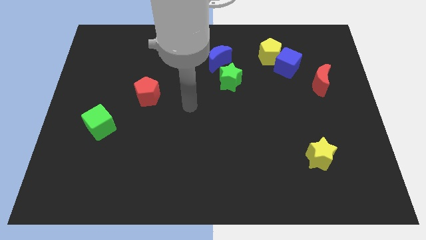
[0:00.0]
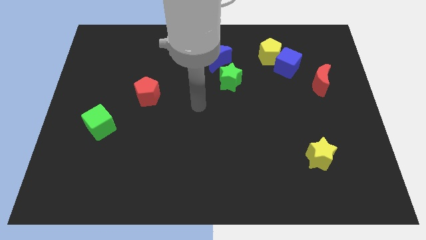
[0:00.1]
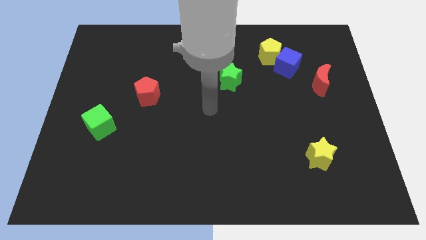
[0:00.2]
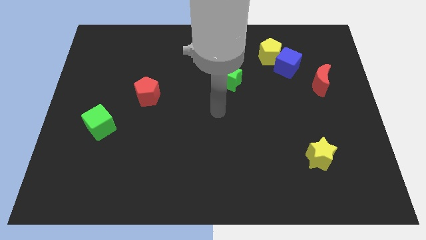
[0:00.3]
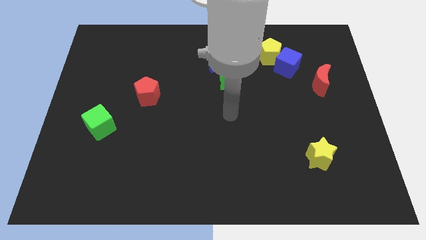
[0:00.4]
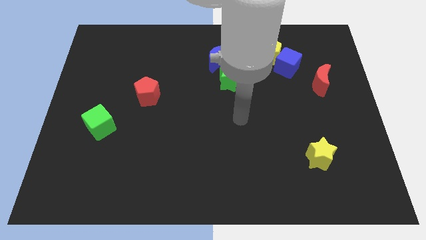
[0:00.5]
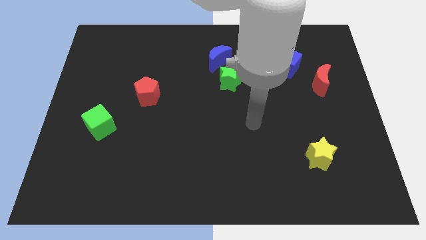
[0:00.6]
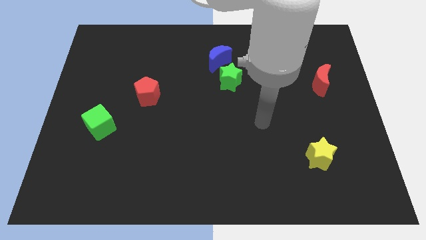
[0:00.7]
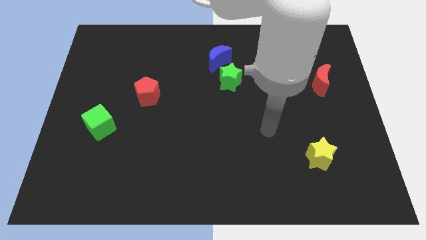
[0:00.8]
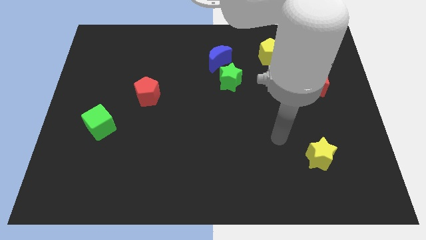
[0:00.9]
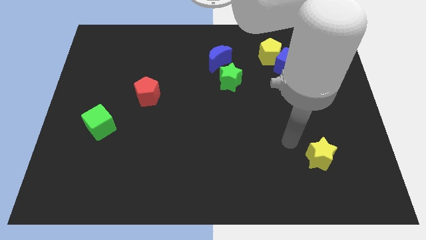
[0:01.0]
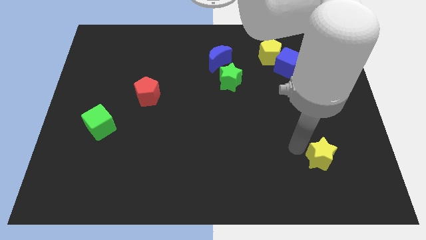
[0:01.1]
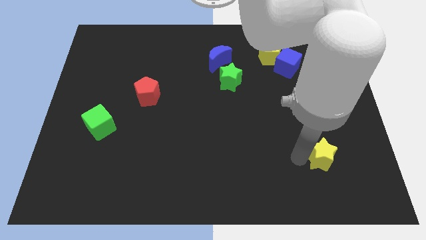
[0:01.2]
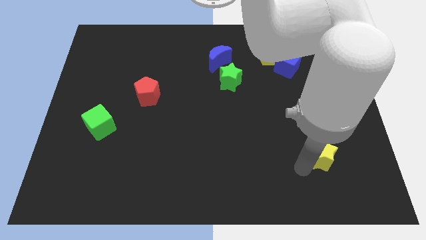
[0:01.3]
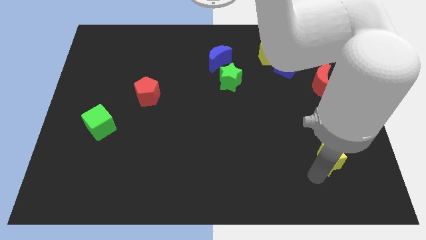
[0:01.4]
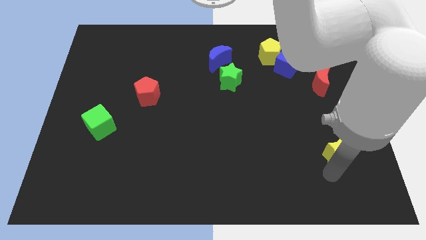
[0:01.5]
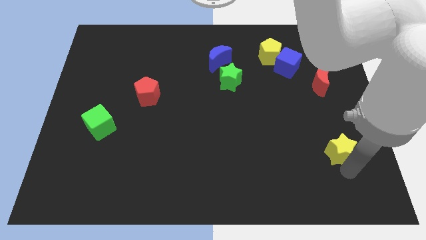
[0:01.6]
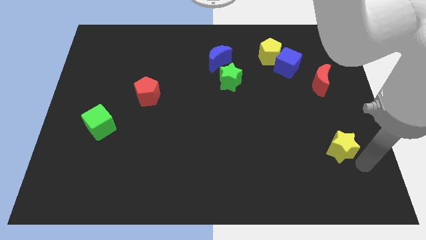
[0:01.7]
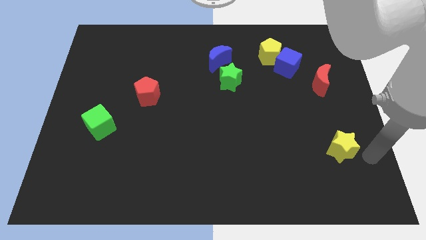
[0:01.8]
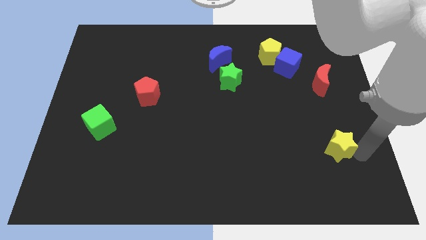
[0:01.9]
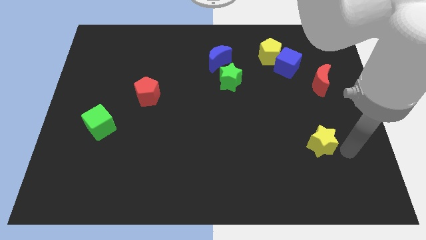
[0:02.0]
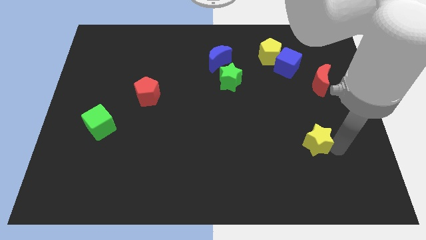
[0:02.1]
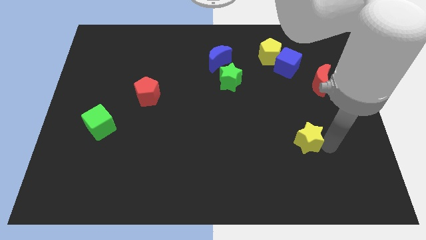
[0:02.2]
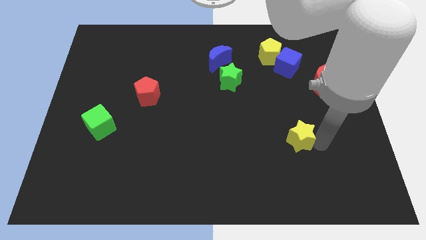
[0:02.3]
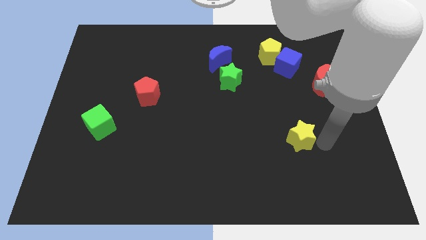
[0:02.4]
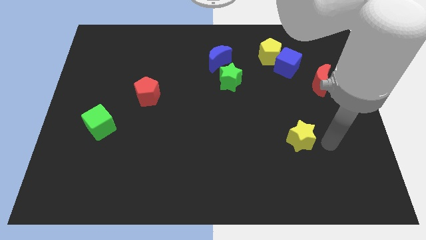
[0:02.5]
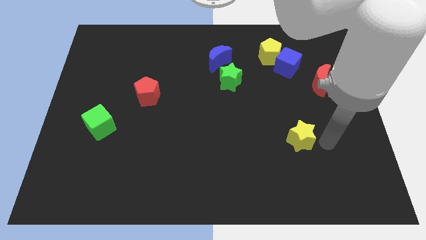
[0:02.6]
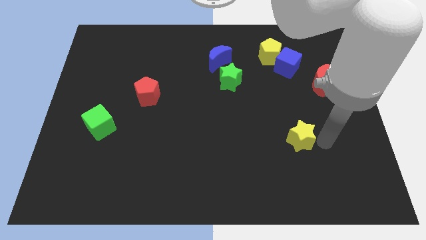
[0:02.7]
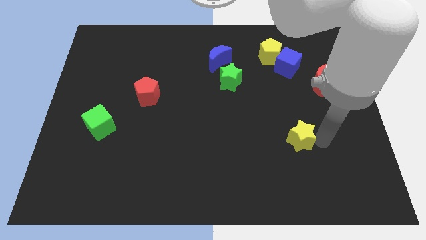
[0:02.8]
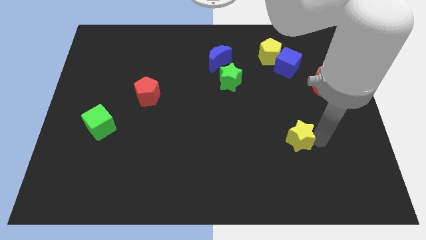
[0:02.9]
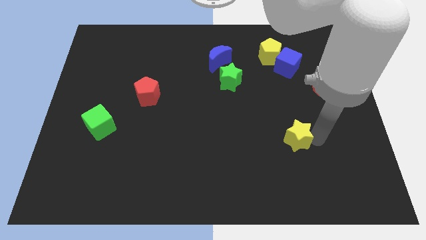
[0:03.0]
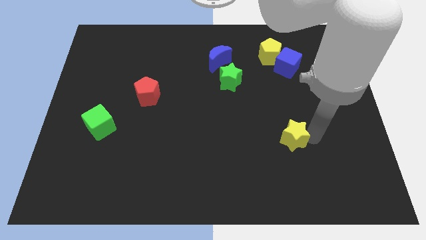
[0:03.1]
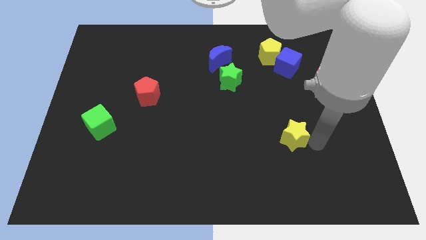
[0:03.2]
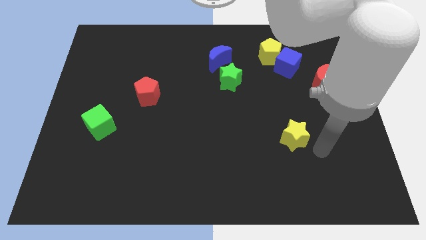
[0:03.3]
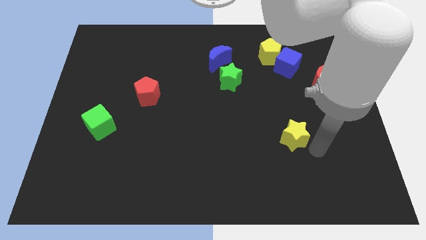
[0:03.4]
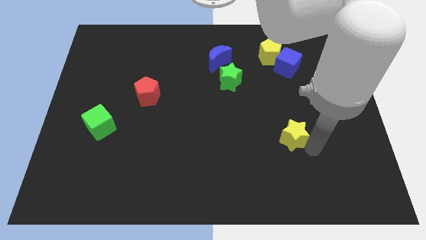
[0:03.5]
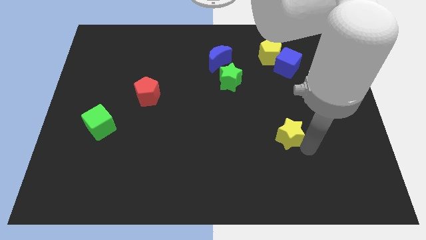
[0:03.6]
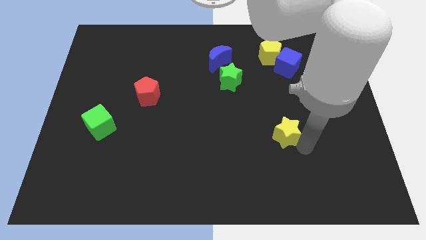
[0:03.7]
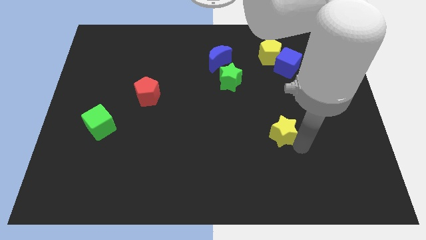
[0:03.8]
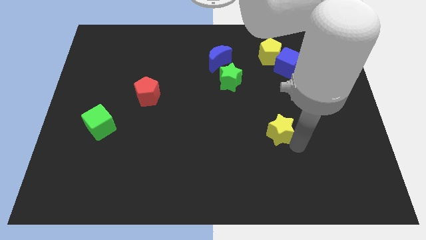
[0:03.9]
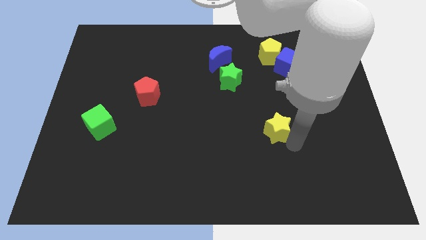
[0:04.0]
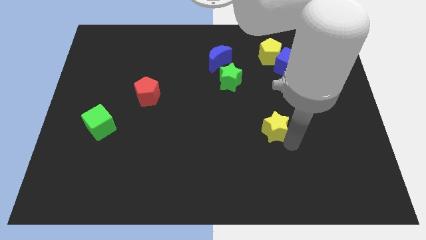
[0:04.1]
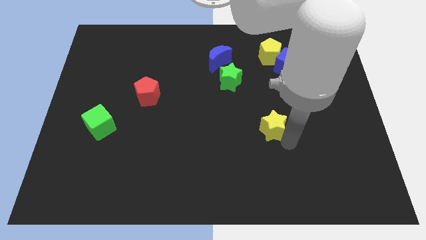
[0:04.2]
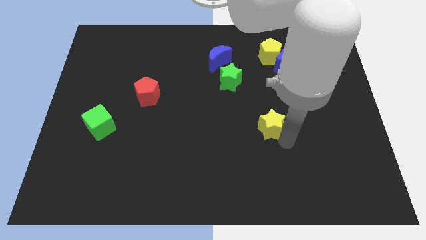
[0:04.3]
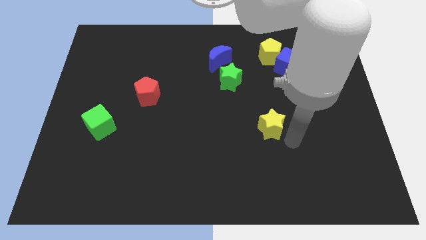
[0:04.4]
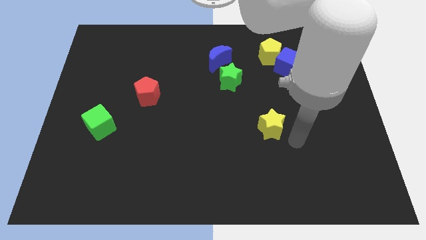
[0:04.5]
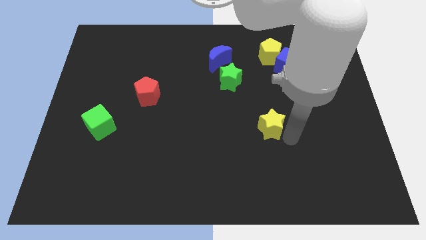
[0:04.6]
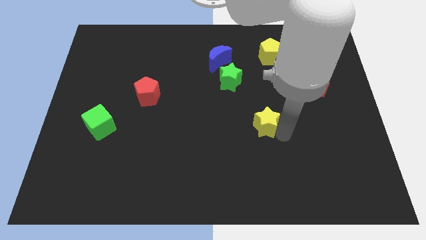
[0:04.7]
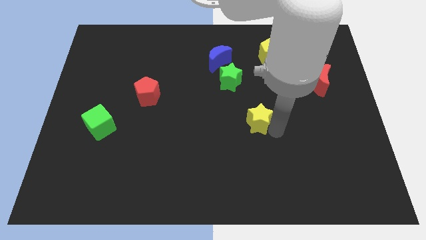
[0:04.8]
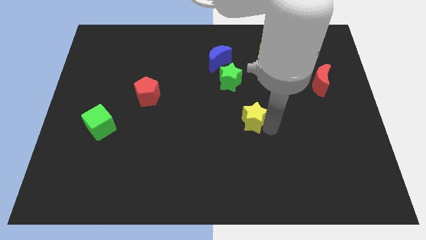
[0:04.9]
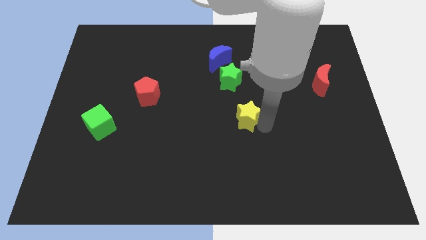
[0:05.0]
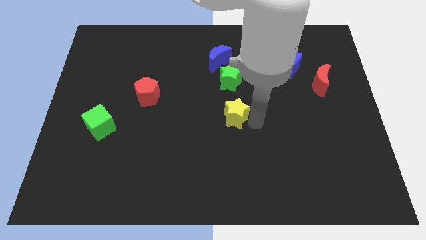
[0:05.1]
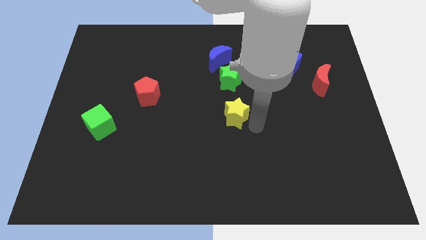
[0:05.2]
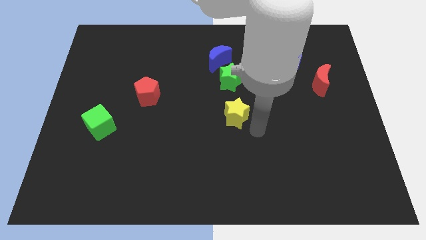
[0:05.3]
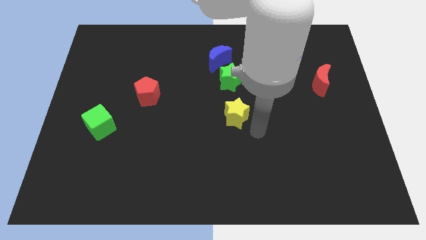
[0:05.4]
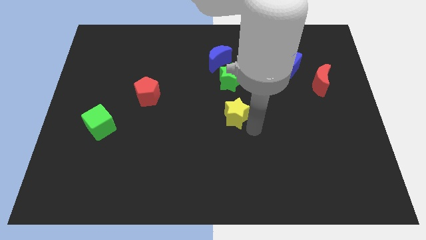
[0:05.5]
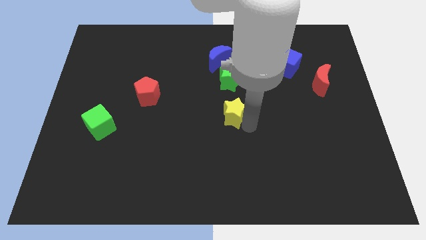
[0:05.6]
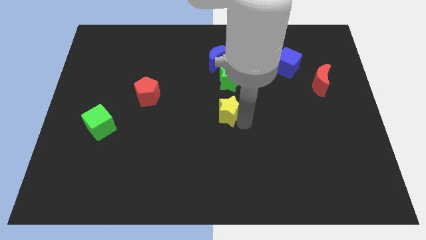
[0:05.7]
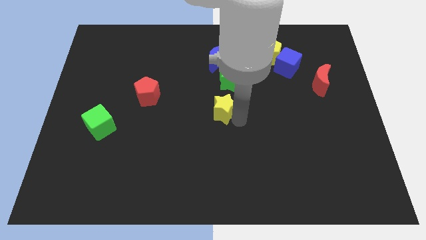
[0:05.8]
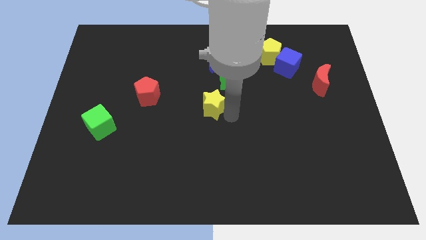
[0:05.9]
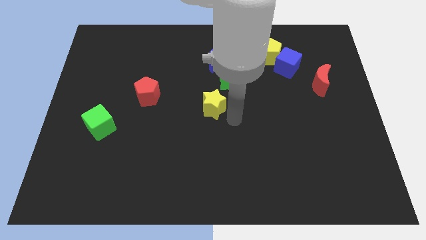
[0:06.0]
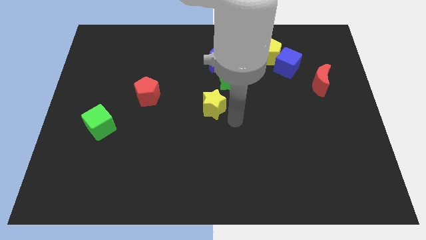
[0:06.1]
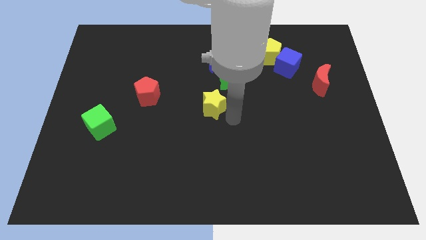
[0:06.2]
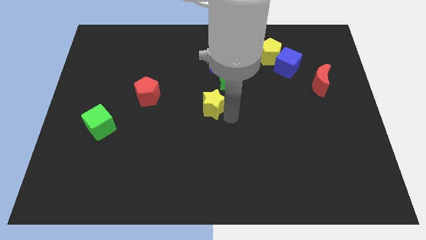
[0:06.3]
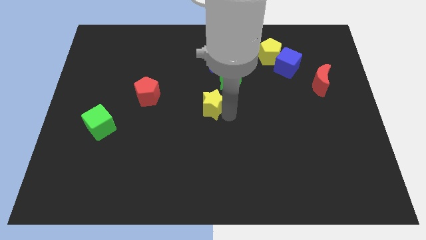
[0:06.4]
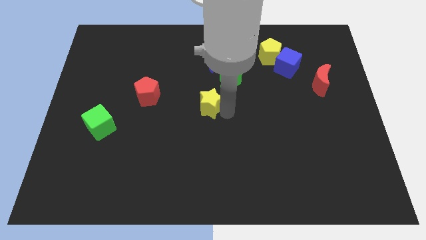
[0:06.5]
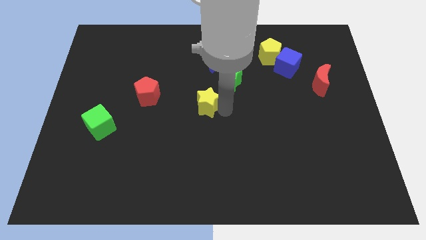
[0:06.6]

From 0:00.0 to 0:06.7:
slide the yellow star just right of the red pentagon

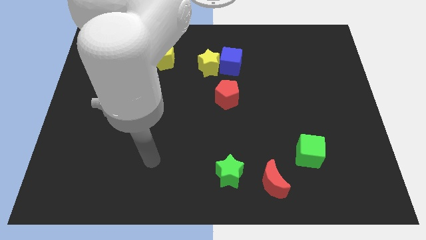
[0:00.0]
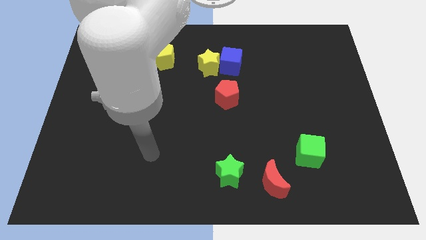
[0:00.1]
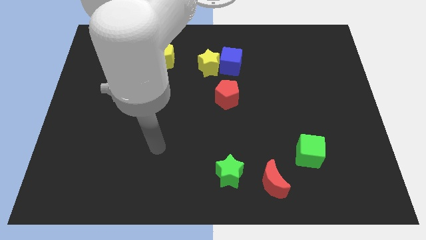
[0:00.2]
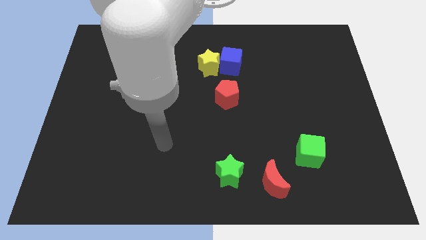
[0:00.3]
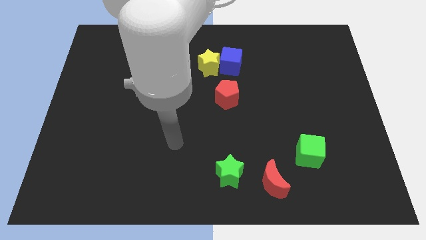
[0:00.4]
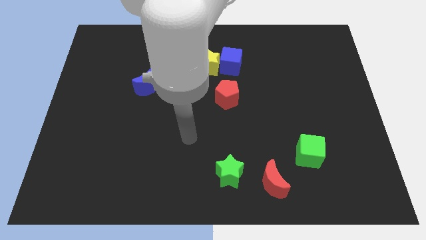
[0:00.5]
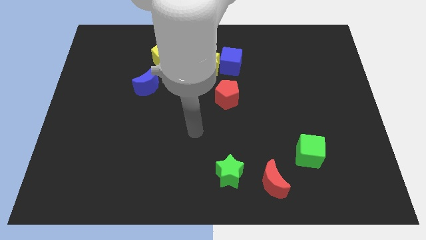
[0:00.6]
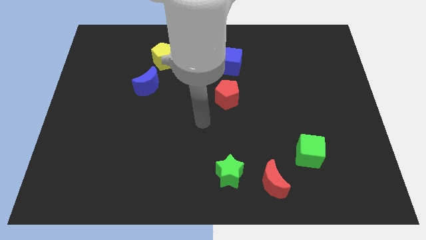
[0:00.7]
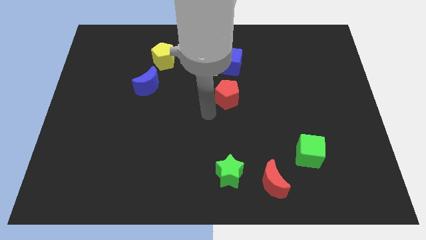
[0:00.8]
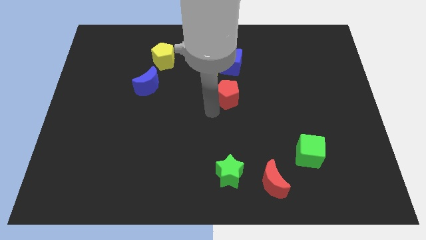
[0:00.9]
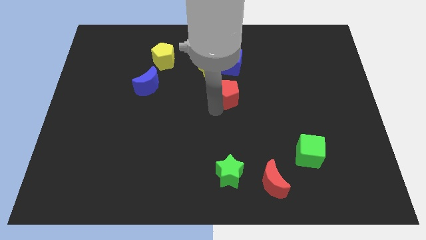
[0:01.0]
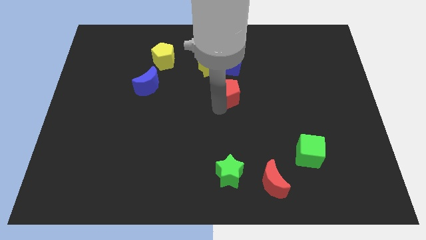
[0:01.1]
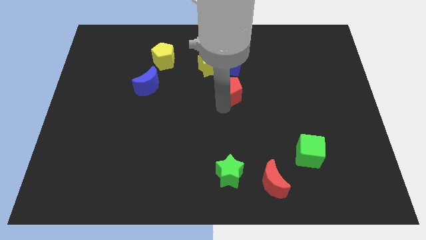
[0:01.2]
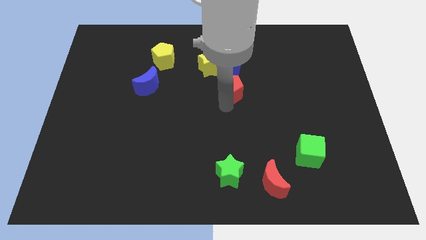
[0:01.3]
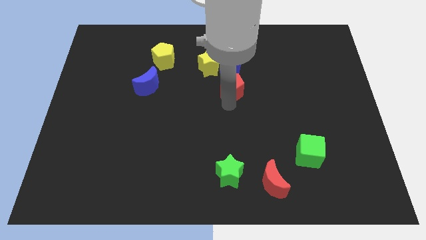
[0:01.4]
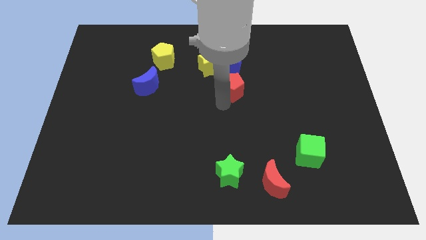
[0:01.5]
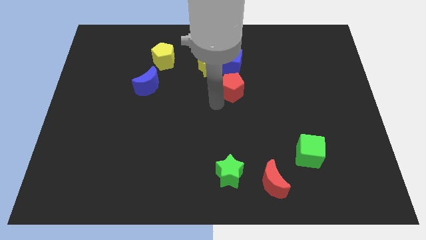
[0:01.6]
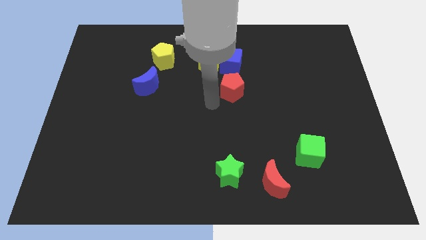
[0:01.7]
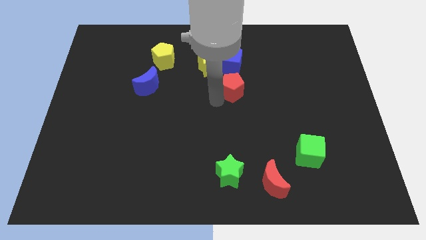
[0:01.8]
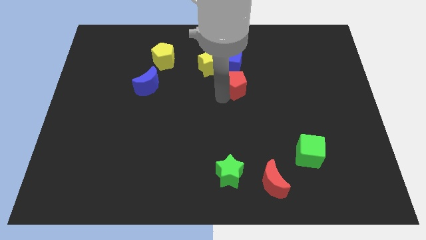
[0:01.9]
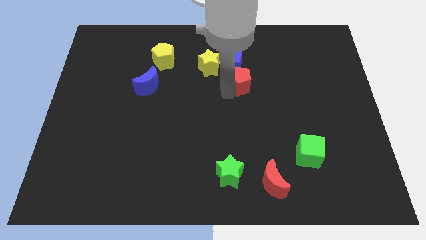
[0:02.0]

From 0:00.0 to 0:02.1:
push the red pentagon diagonally down and to the right of the blue cube
